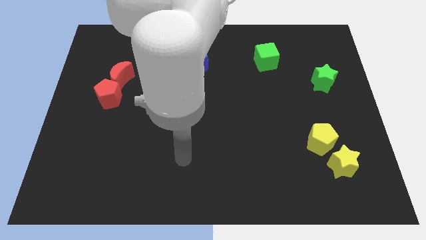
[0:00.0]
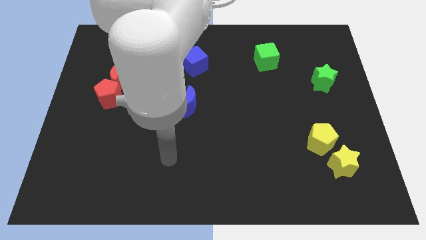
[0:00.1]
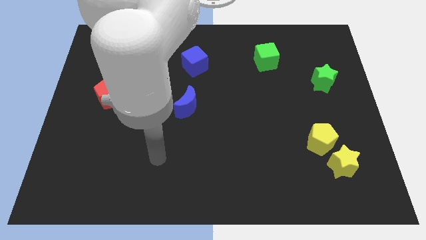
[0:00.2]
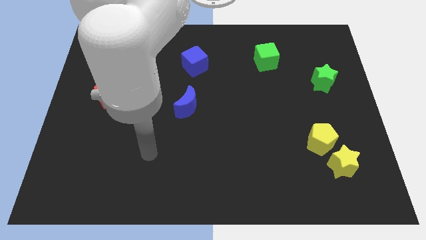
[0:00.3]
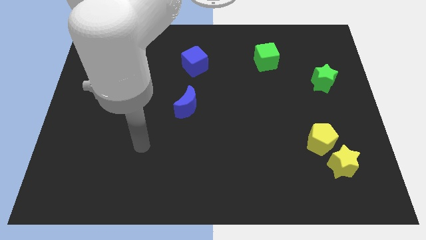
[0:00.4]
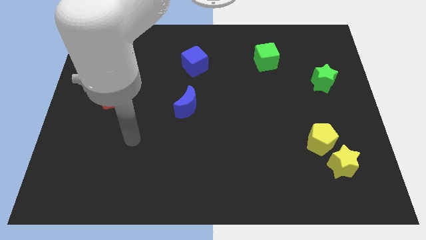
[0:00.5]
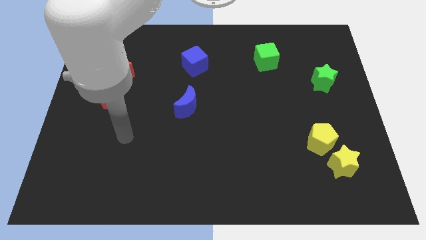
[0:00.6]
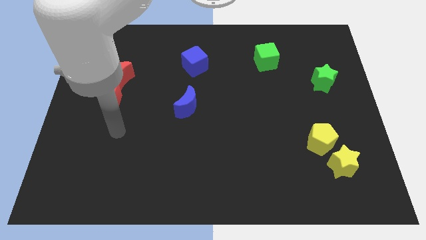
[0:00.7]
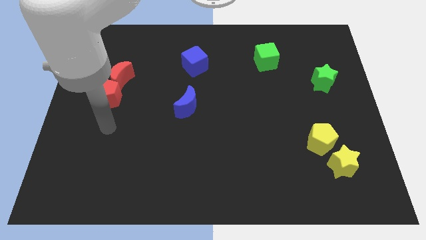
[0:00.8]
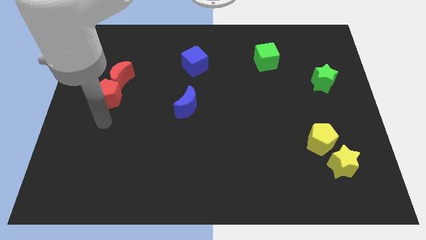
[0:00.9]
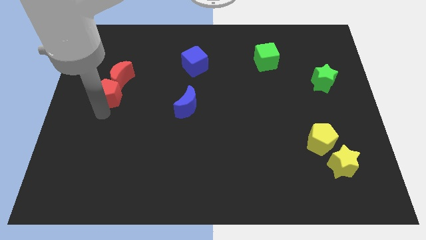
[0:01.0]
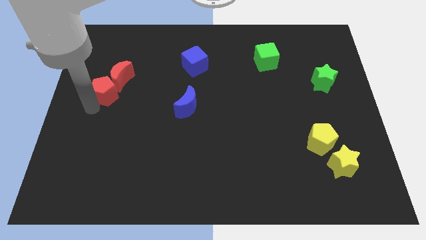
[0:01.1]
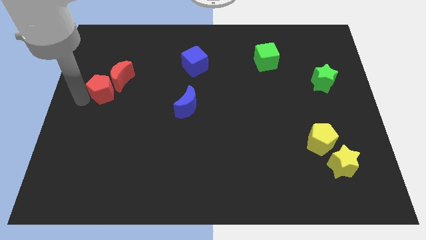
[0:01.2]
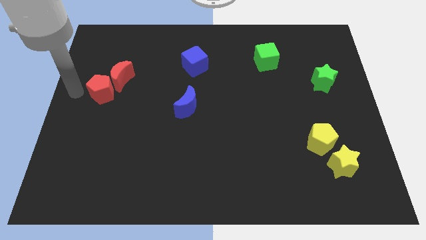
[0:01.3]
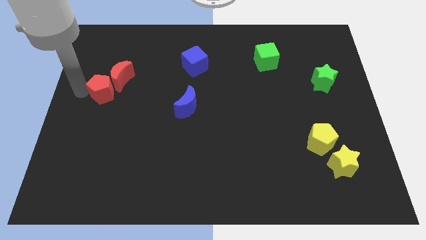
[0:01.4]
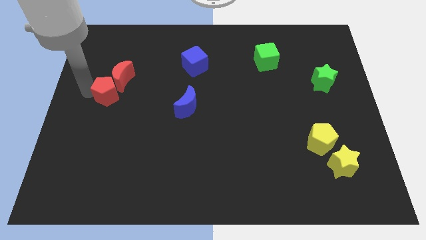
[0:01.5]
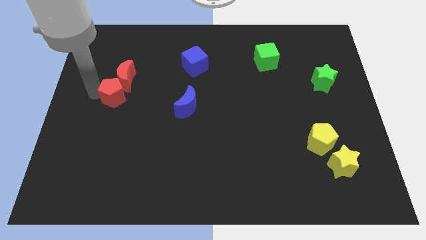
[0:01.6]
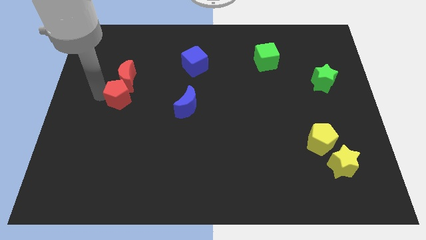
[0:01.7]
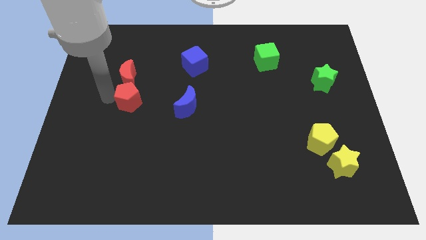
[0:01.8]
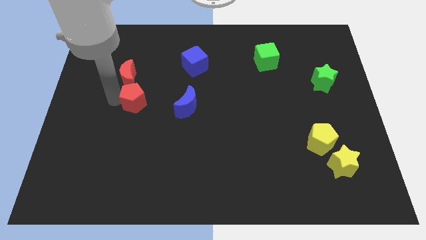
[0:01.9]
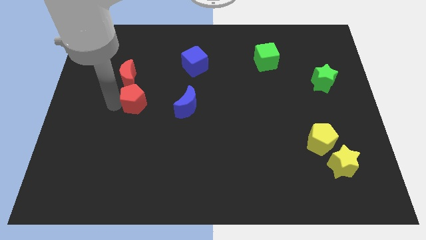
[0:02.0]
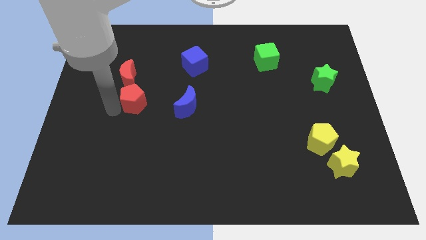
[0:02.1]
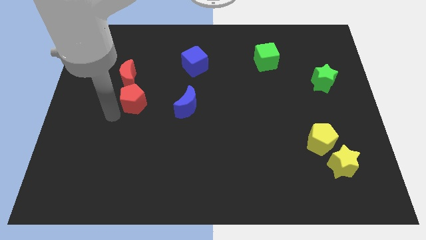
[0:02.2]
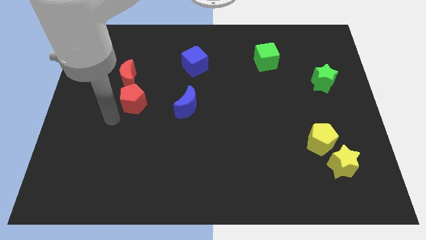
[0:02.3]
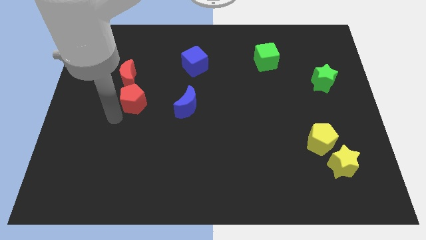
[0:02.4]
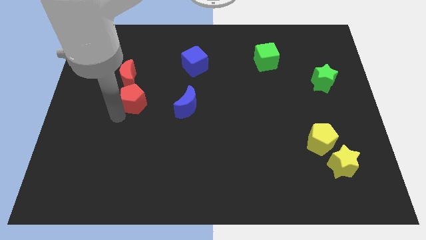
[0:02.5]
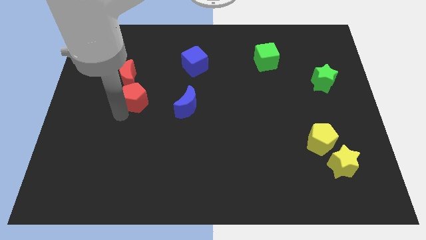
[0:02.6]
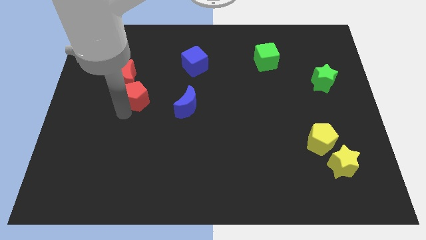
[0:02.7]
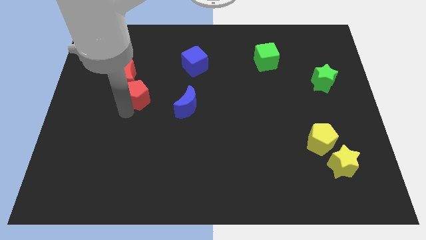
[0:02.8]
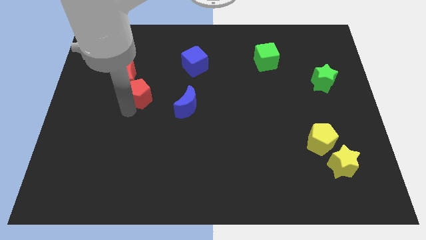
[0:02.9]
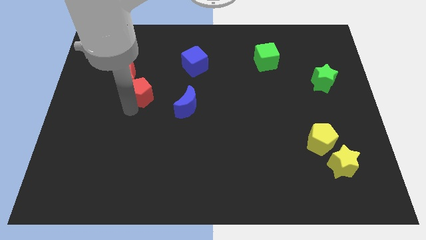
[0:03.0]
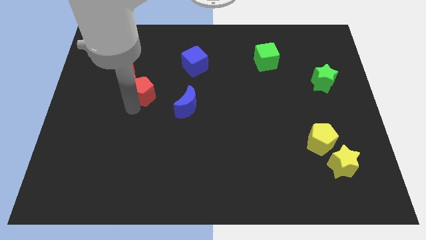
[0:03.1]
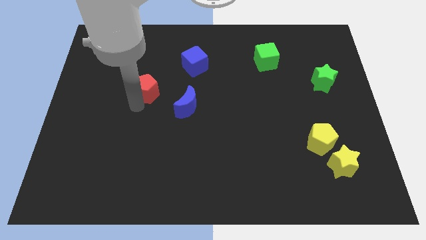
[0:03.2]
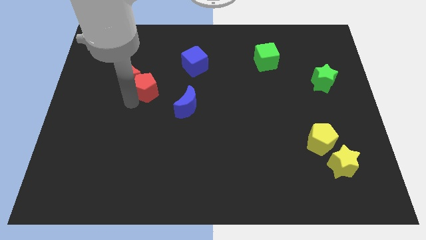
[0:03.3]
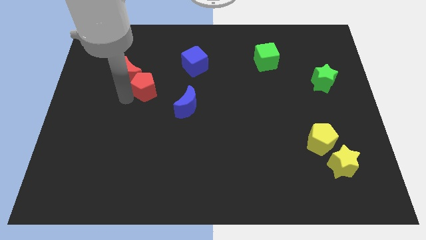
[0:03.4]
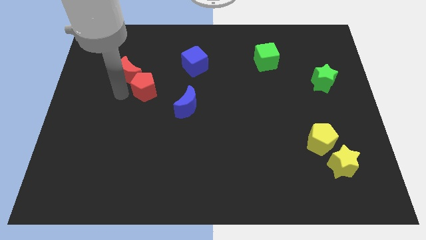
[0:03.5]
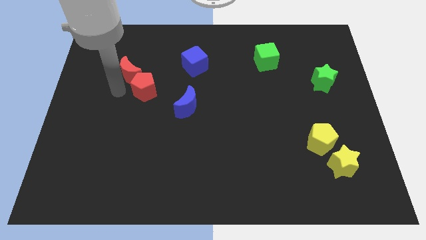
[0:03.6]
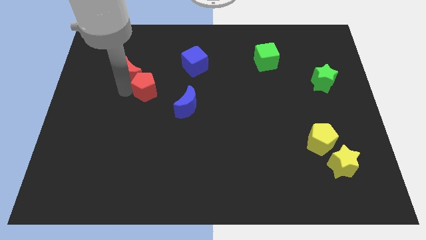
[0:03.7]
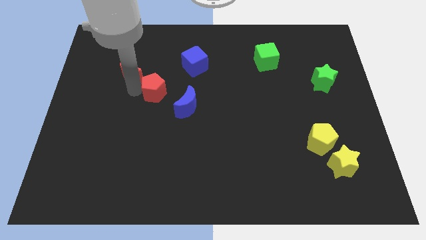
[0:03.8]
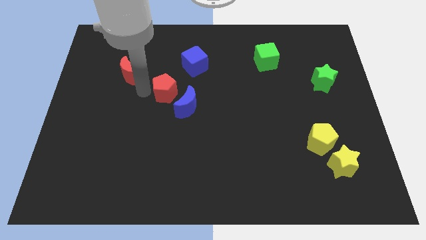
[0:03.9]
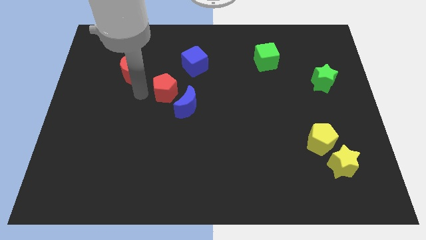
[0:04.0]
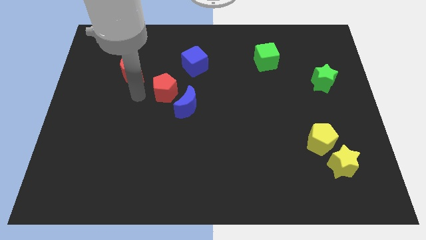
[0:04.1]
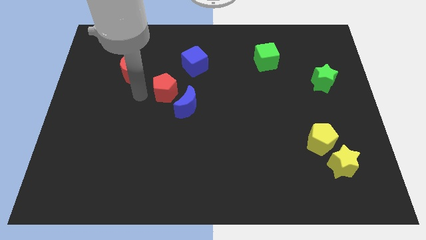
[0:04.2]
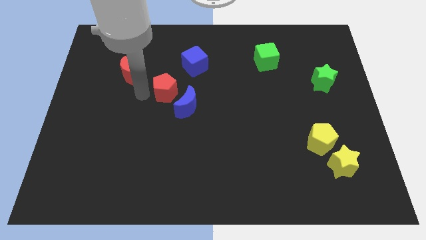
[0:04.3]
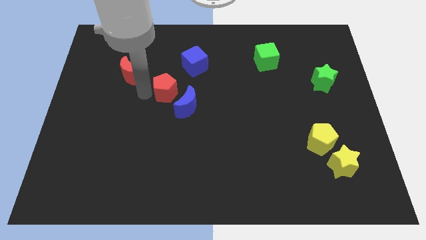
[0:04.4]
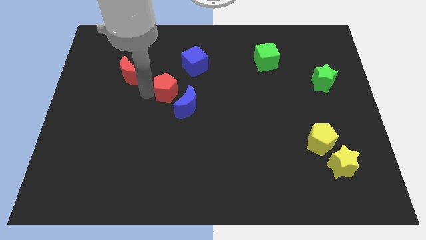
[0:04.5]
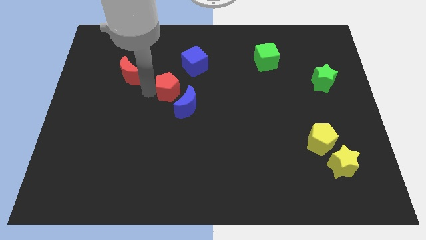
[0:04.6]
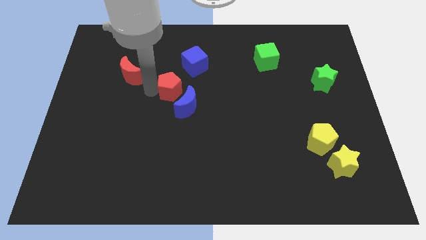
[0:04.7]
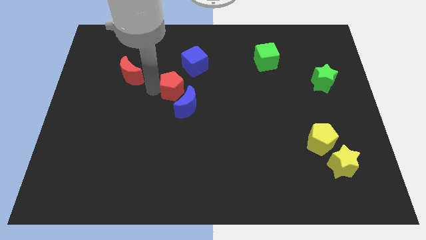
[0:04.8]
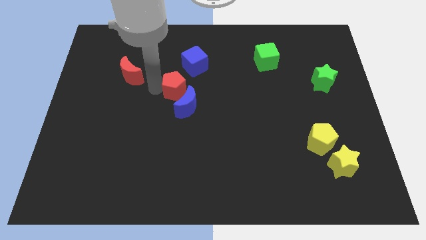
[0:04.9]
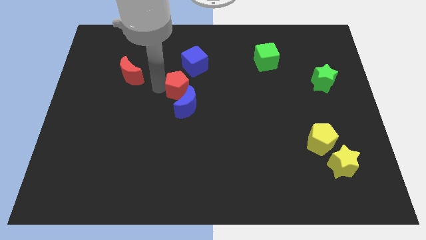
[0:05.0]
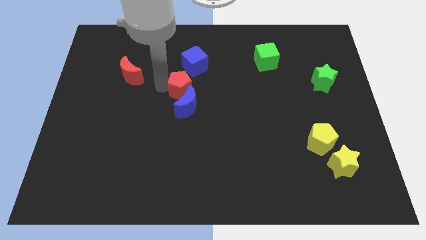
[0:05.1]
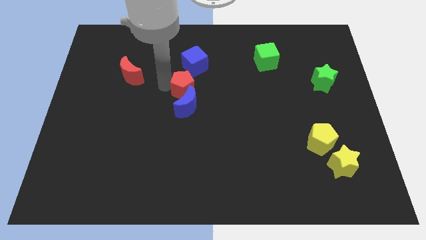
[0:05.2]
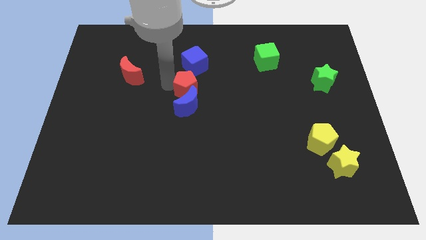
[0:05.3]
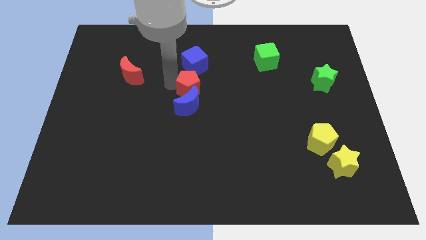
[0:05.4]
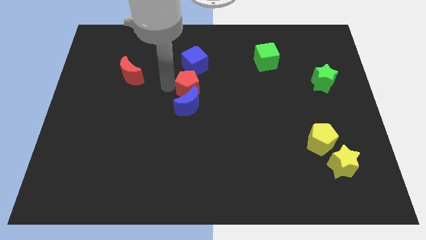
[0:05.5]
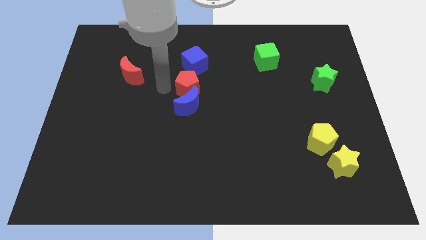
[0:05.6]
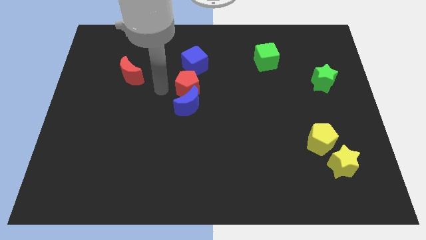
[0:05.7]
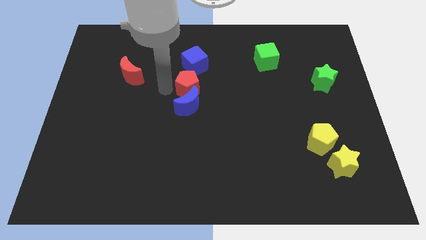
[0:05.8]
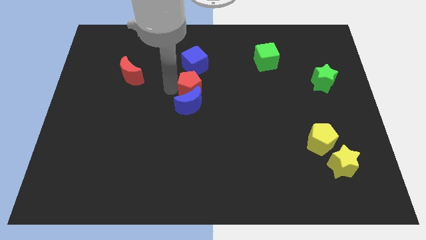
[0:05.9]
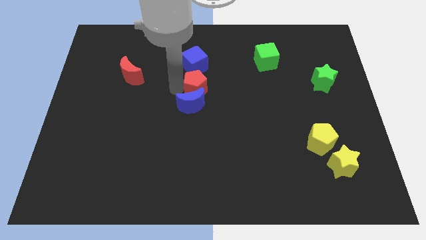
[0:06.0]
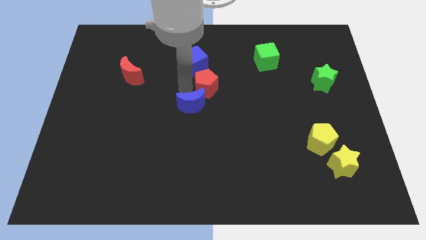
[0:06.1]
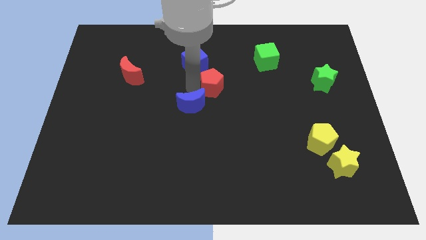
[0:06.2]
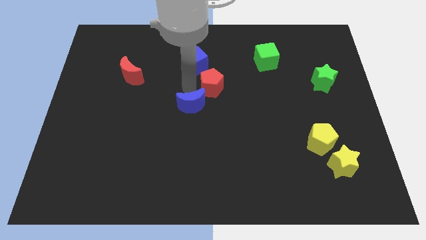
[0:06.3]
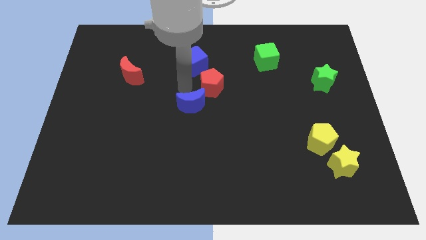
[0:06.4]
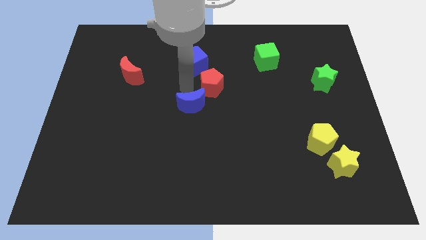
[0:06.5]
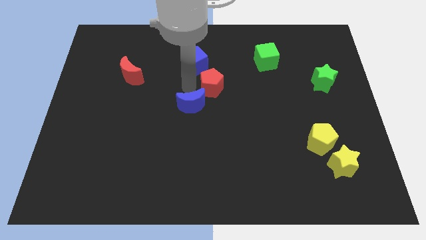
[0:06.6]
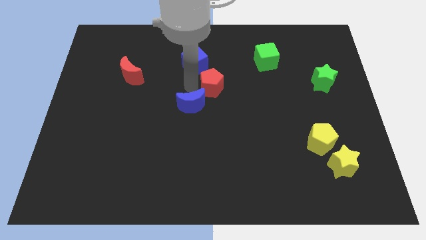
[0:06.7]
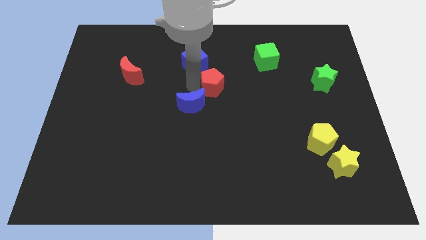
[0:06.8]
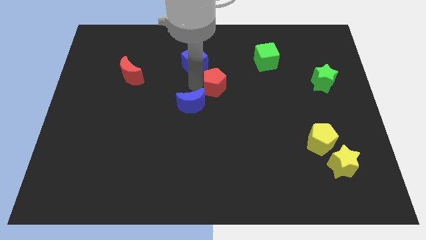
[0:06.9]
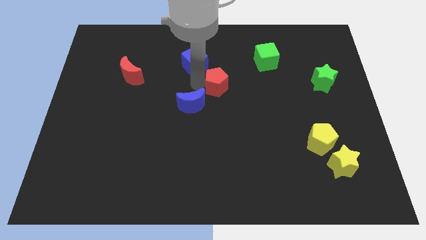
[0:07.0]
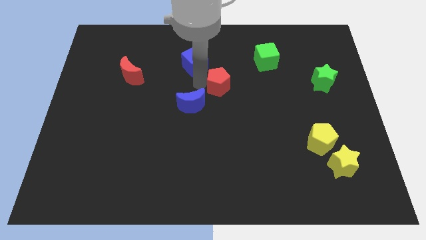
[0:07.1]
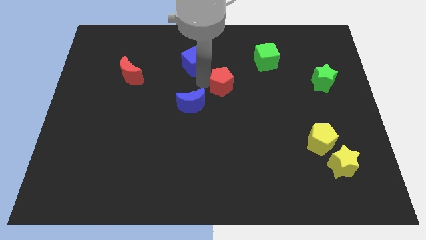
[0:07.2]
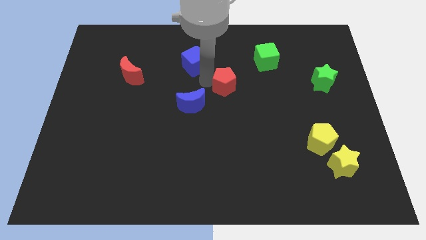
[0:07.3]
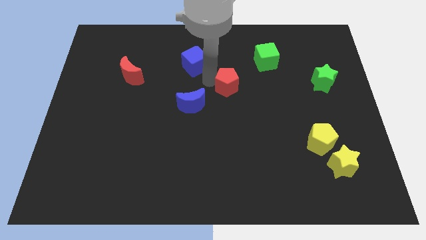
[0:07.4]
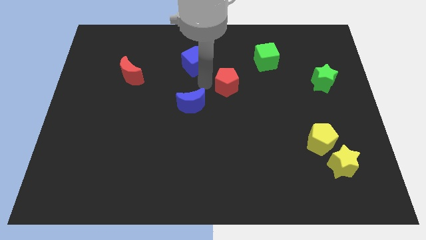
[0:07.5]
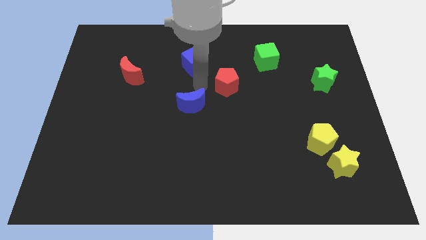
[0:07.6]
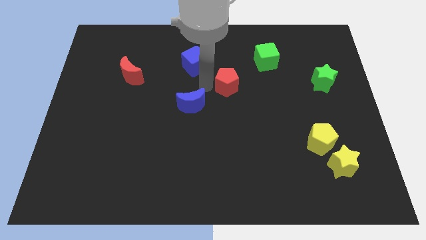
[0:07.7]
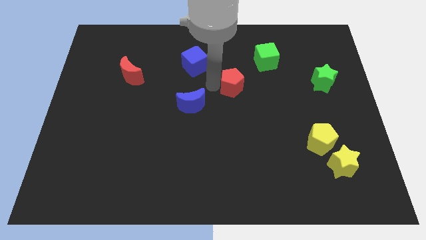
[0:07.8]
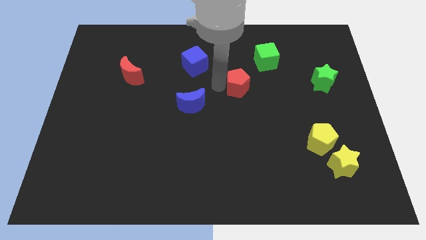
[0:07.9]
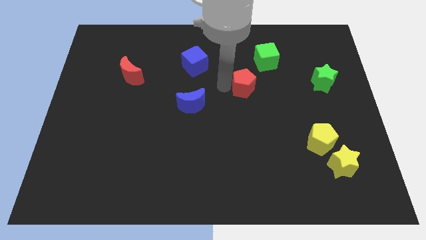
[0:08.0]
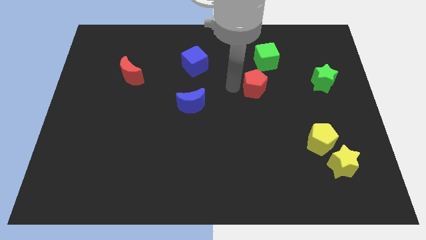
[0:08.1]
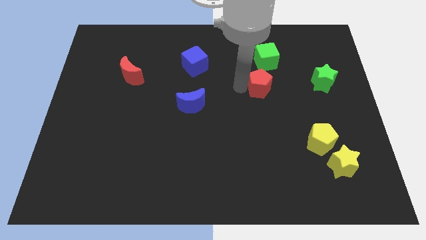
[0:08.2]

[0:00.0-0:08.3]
put the red pentagon to the left of the green star
